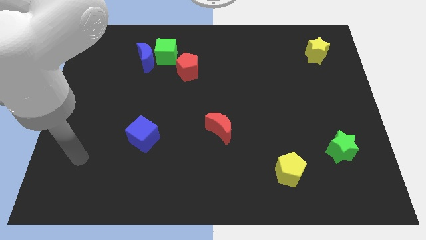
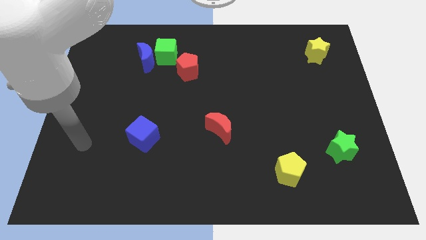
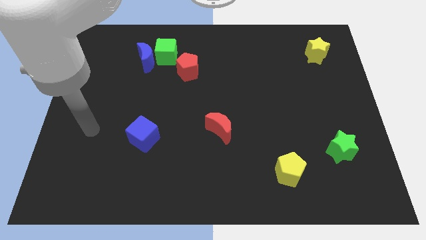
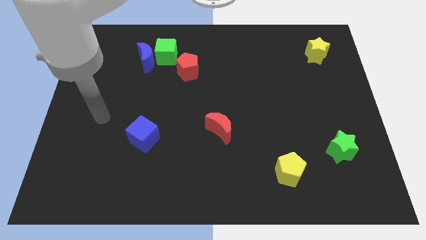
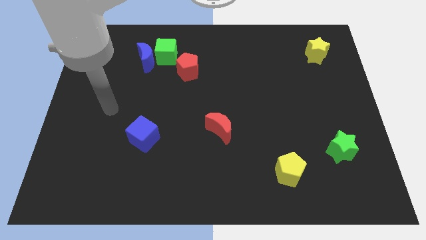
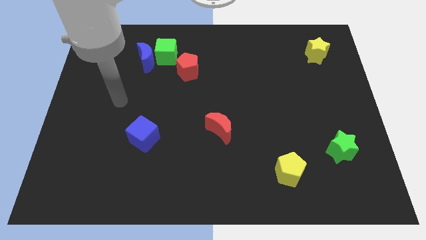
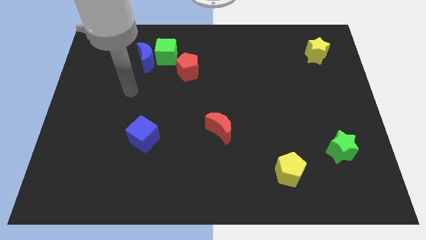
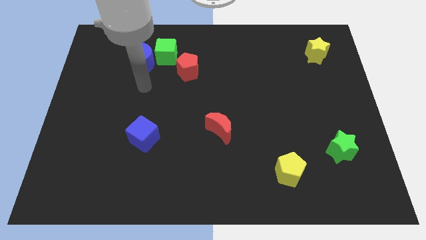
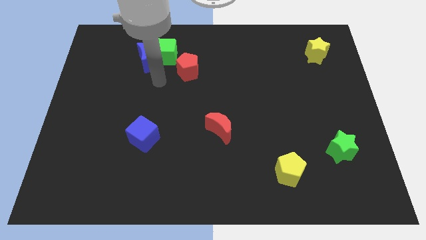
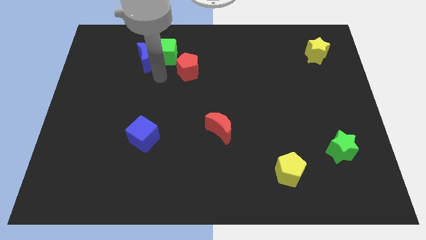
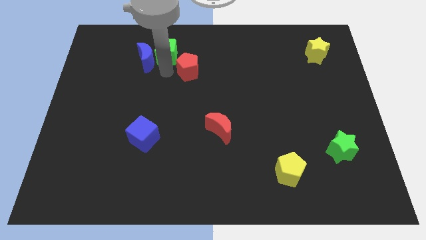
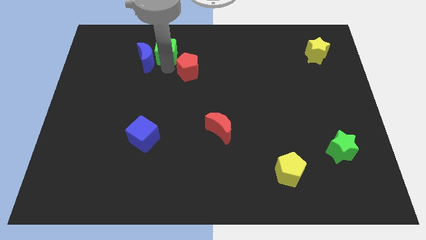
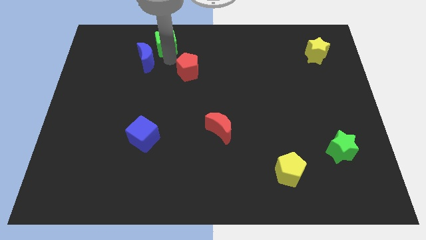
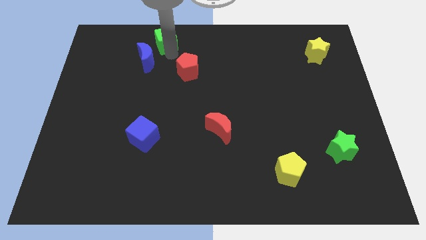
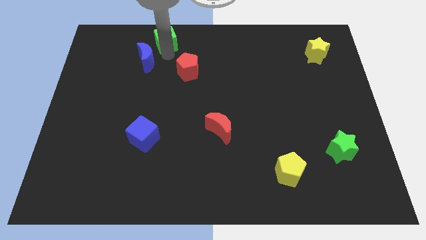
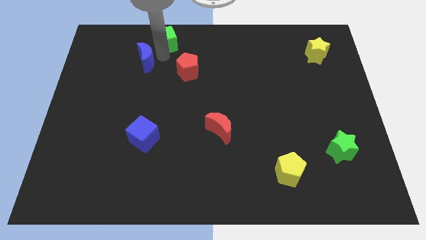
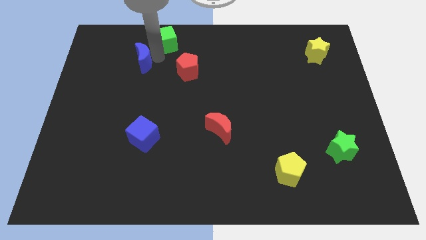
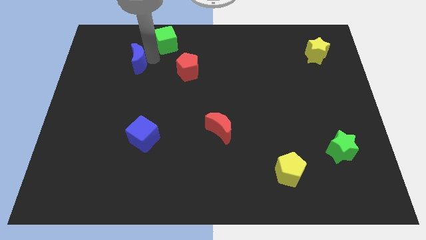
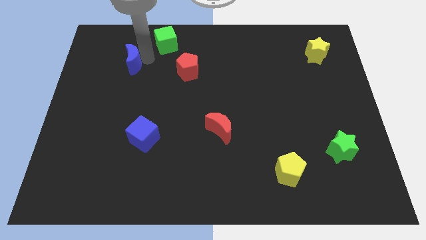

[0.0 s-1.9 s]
pull the blue moon apart from the green cube

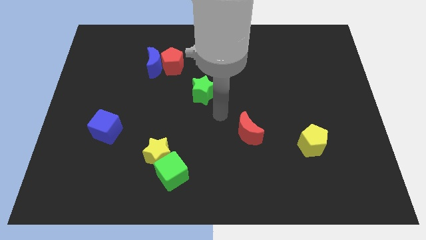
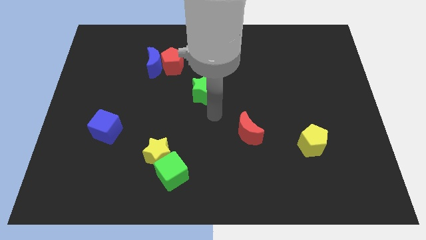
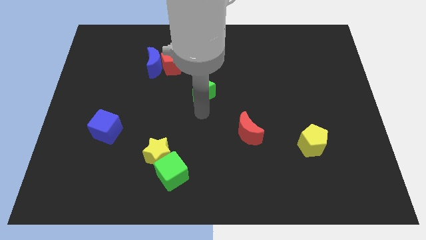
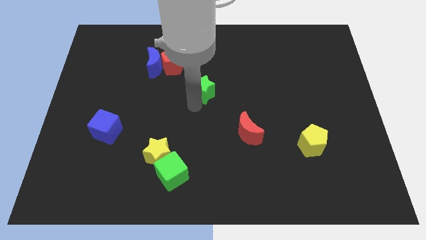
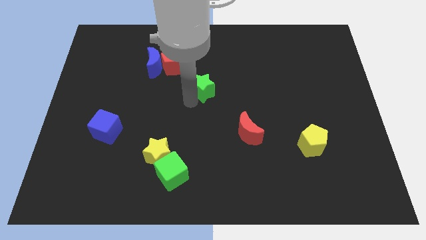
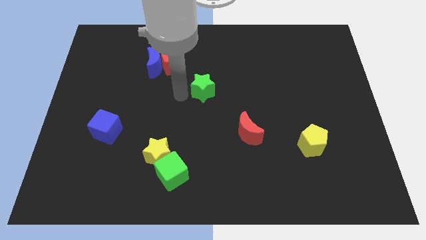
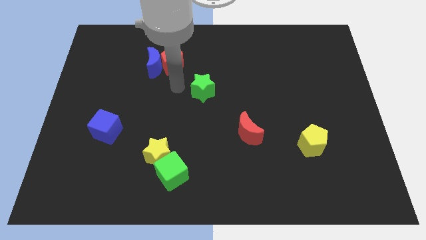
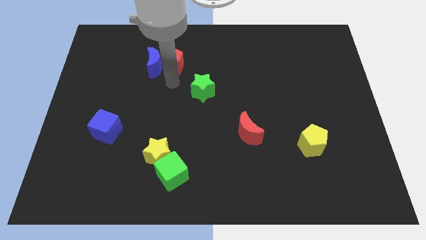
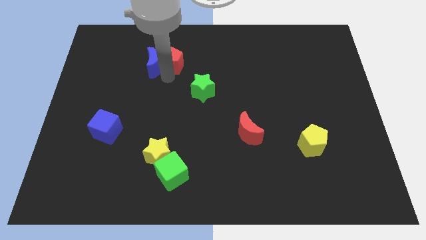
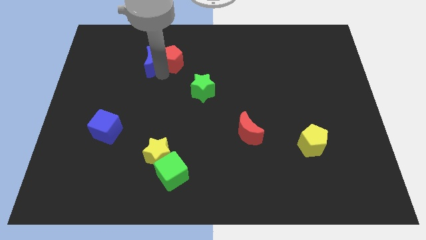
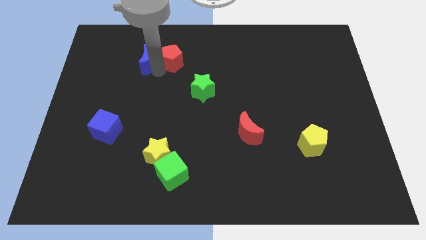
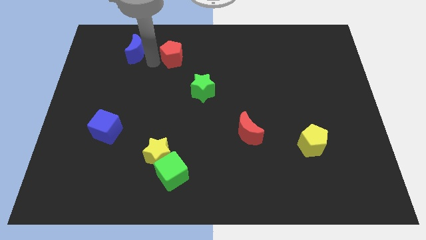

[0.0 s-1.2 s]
separate the red pentagon from the blue moon

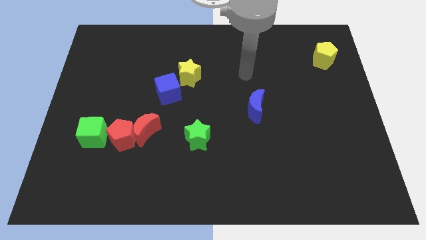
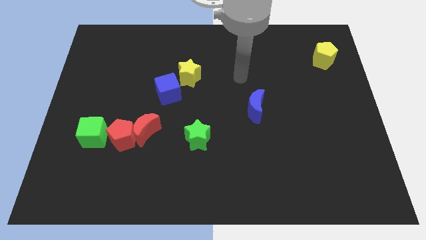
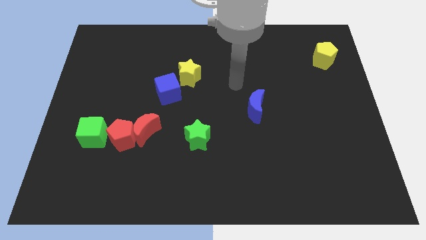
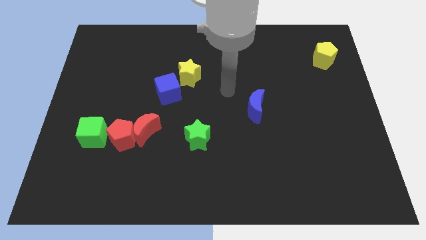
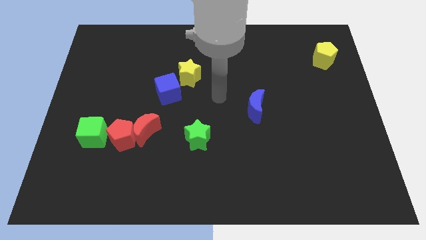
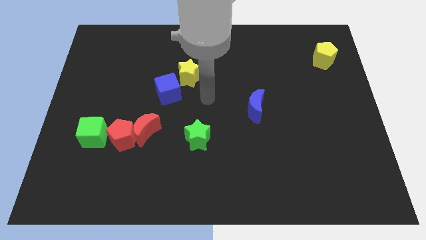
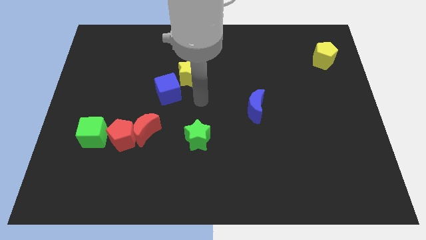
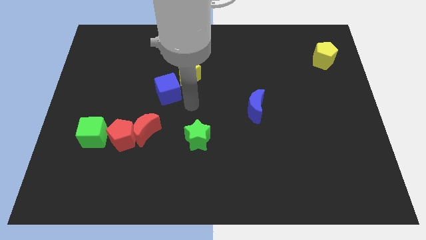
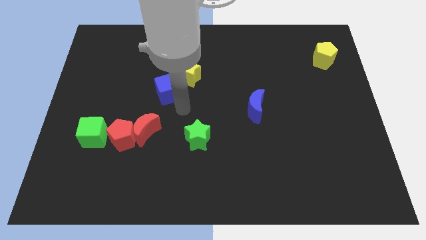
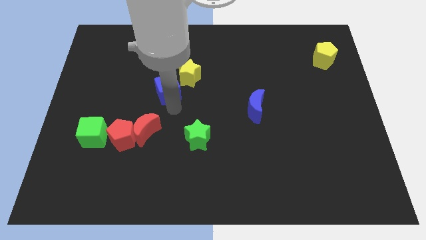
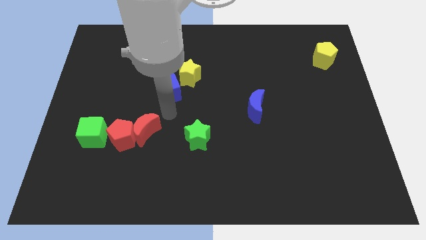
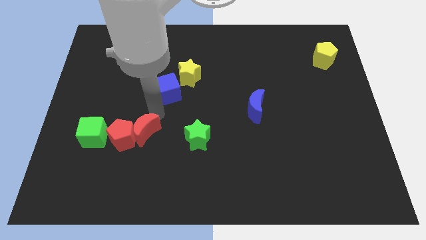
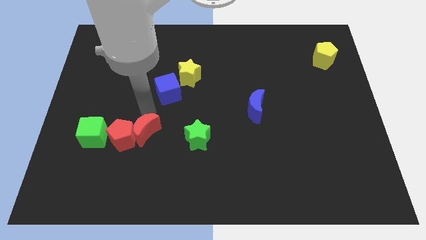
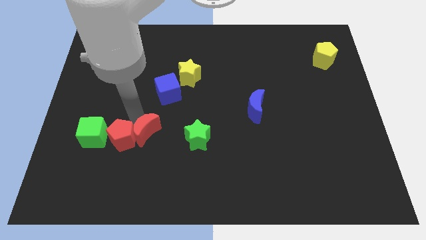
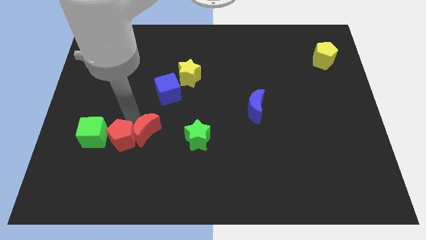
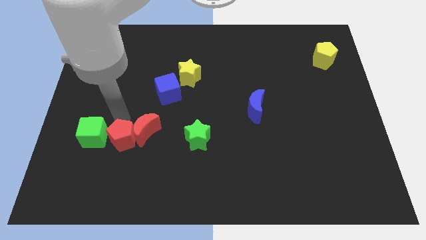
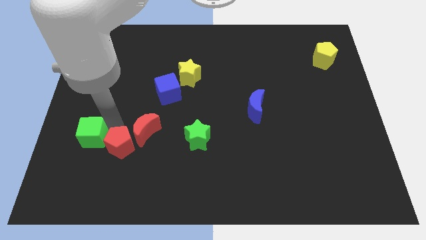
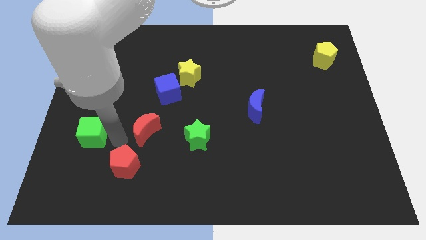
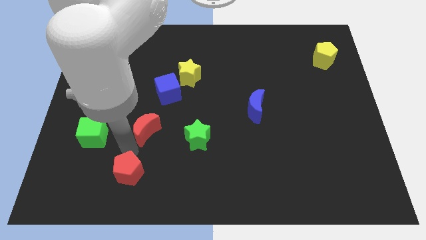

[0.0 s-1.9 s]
pull the red moon apart from the red pentagon

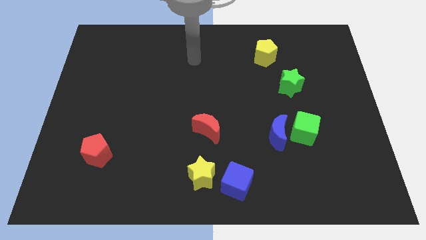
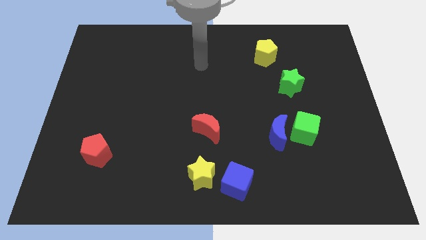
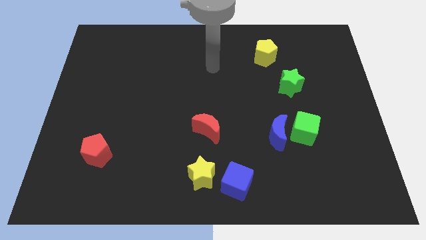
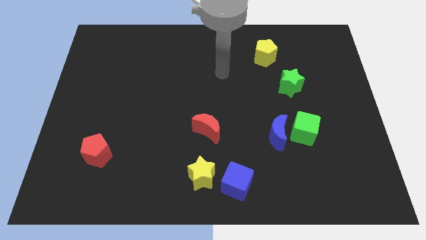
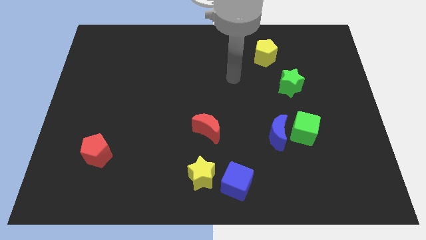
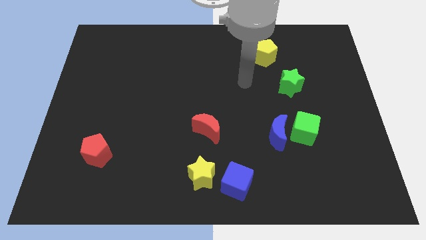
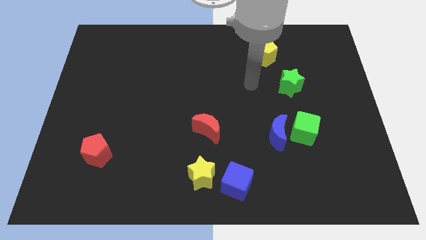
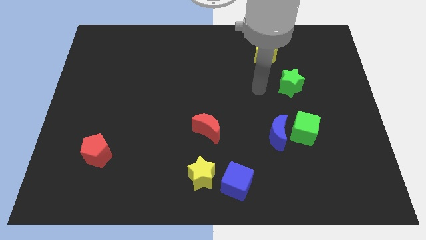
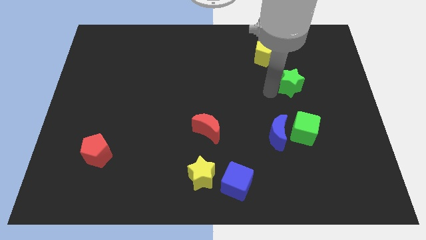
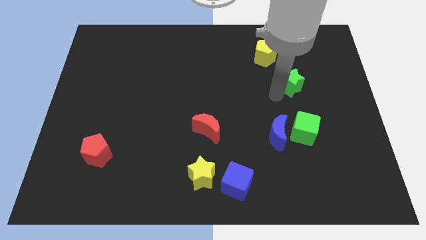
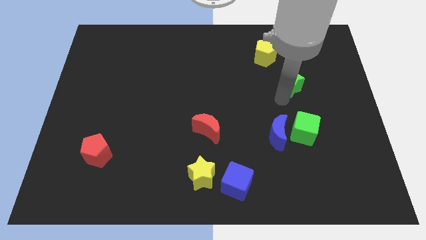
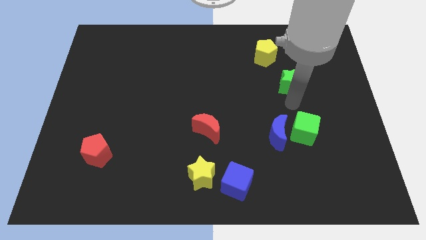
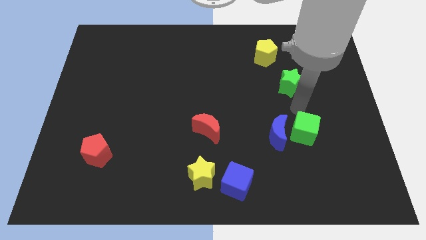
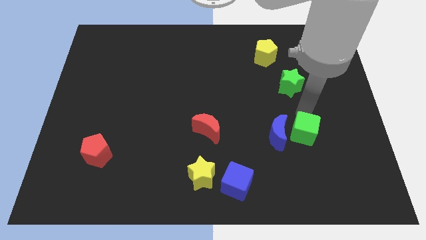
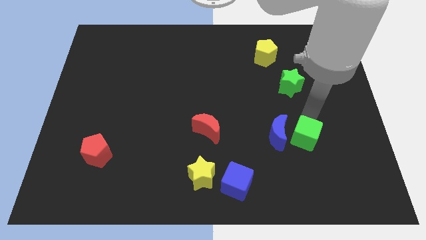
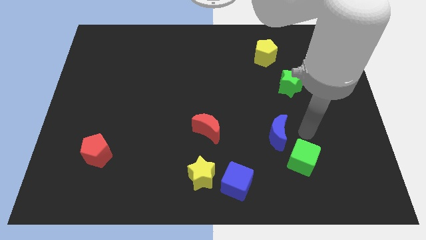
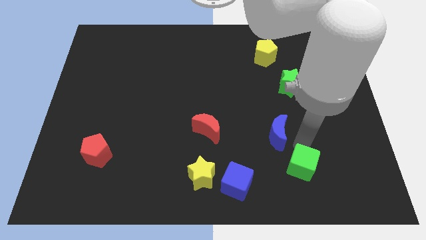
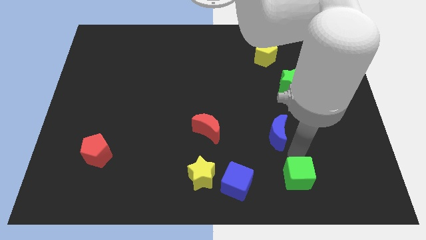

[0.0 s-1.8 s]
separate the blue moon from the green cube

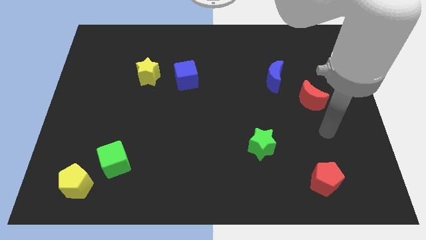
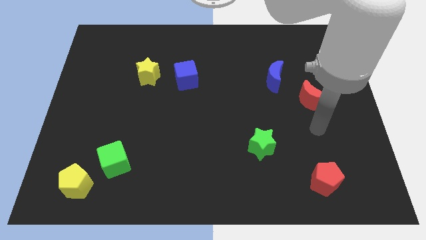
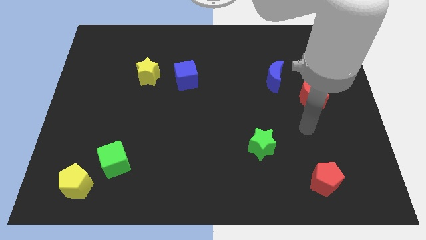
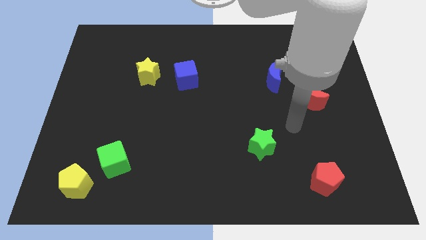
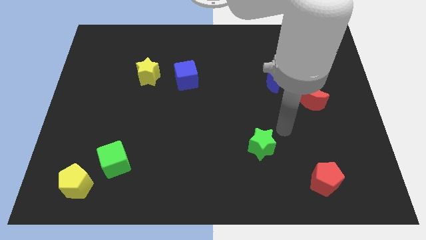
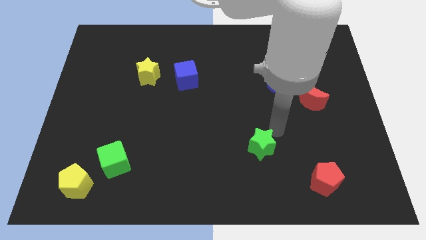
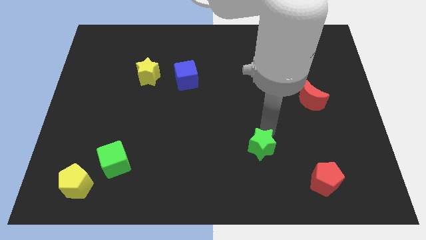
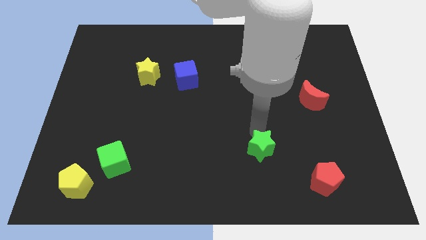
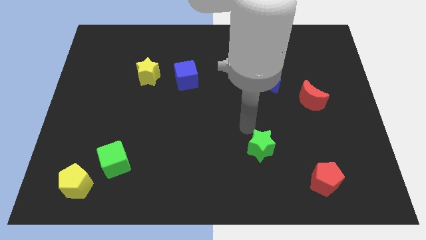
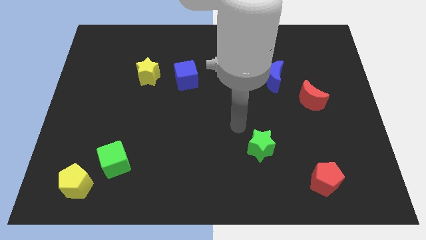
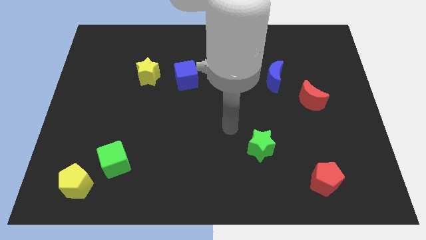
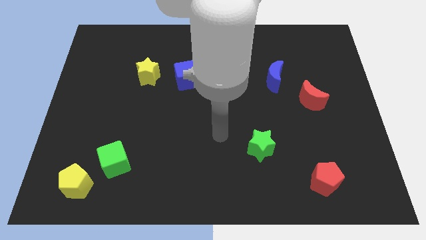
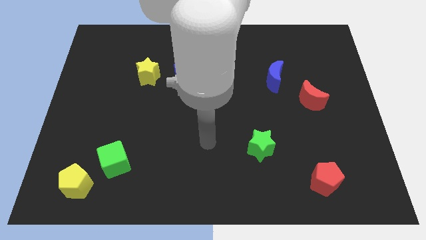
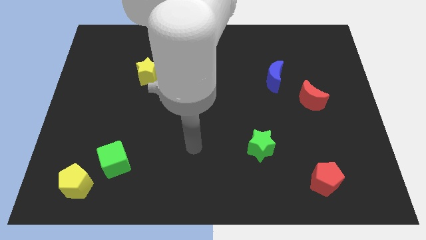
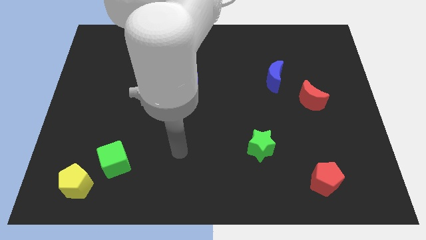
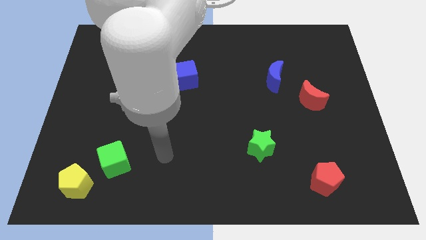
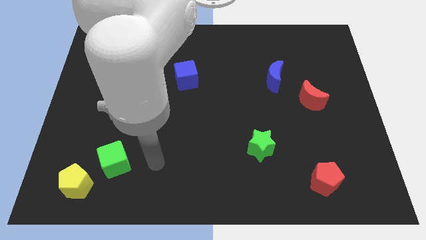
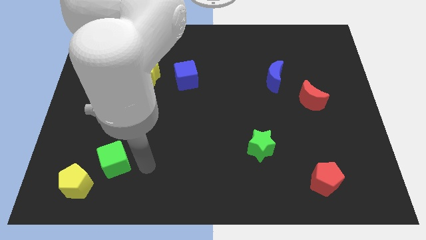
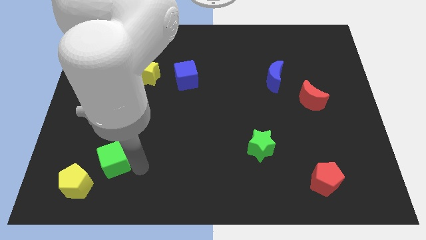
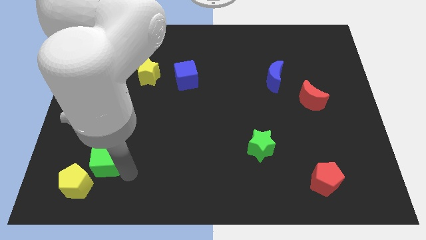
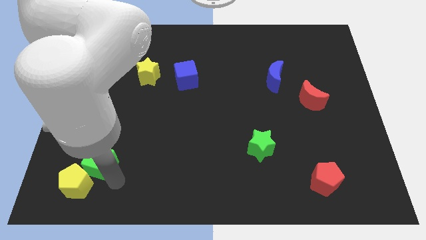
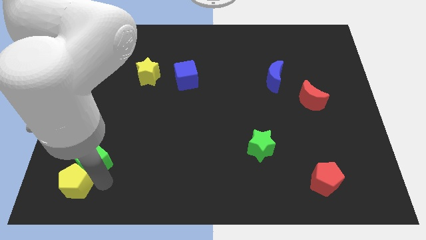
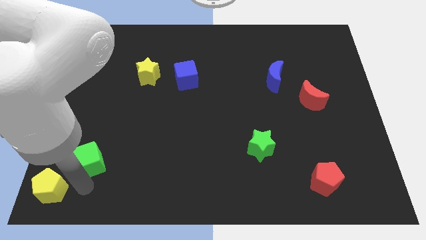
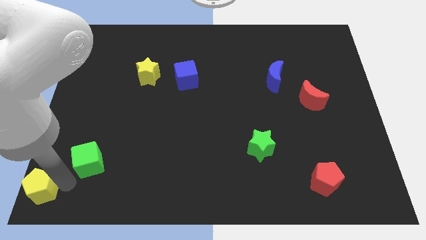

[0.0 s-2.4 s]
pull the green cube apart from the yellow pentagon
